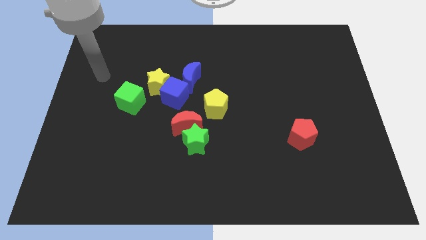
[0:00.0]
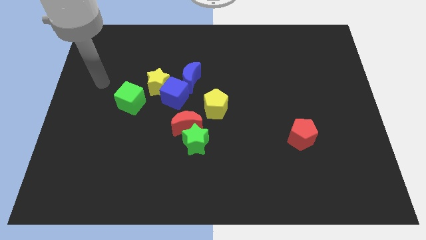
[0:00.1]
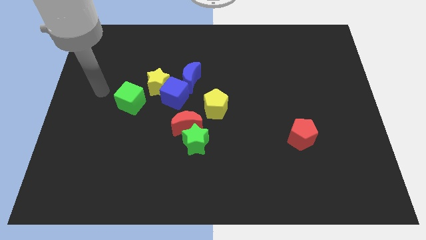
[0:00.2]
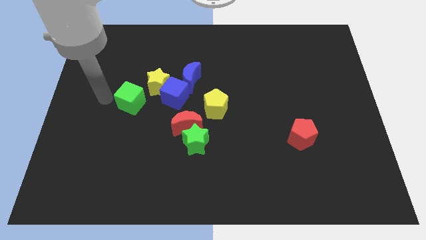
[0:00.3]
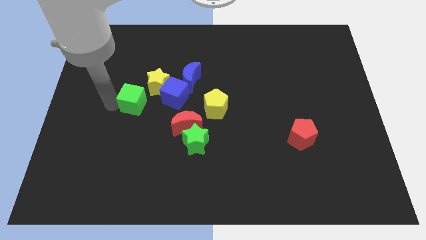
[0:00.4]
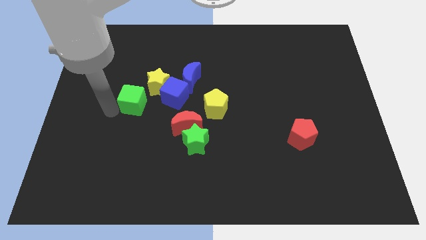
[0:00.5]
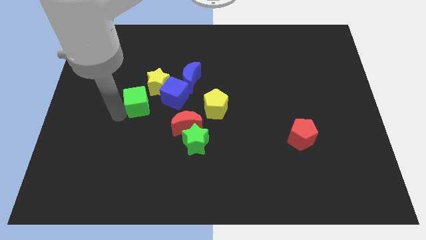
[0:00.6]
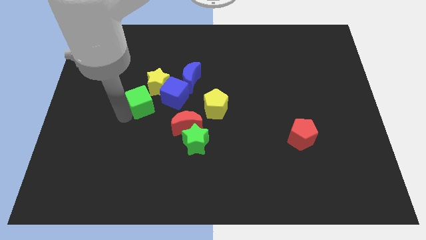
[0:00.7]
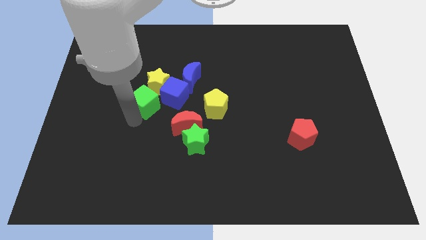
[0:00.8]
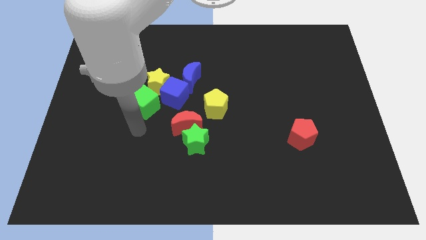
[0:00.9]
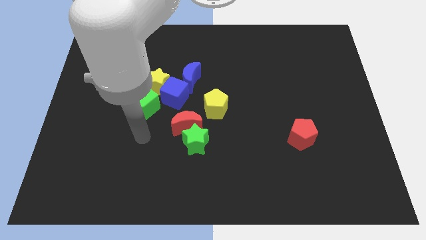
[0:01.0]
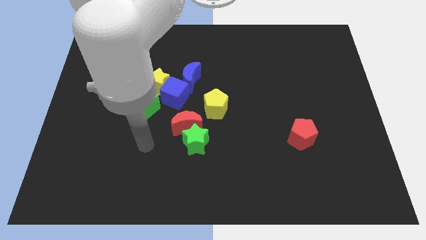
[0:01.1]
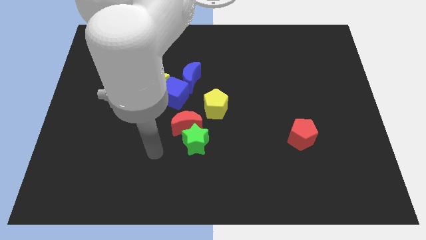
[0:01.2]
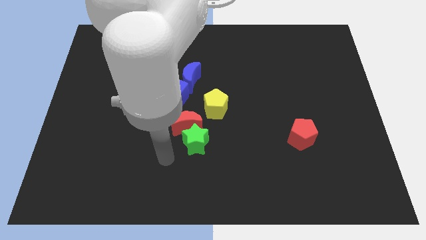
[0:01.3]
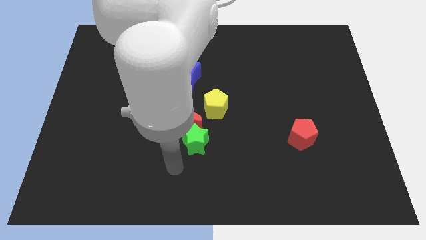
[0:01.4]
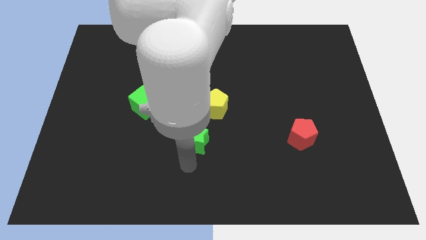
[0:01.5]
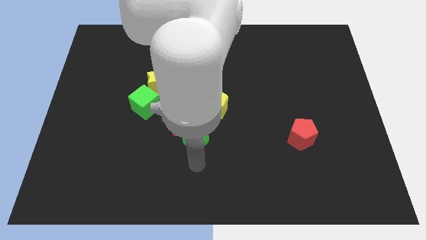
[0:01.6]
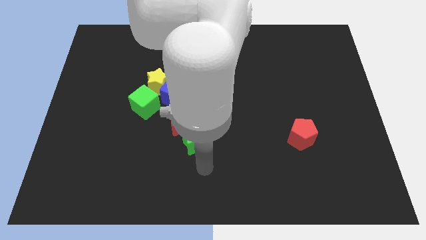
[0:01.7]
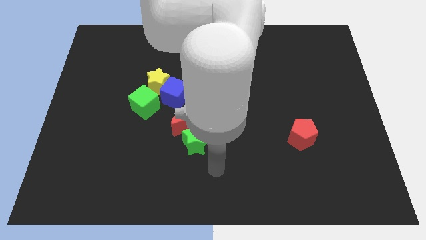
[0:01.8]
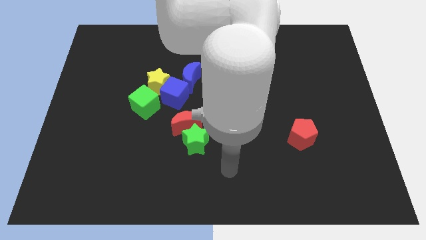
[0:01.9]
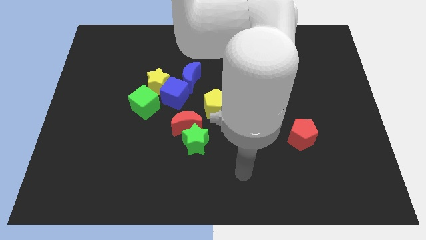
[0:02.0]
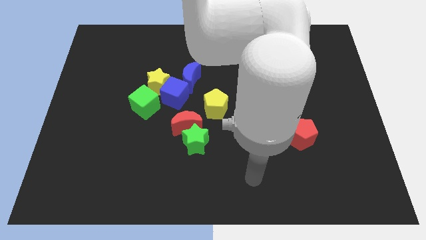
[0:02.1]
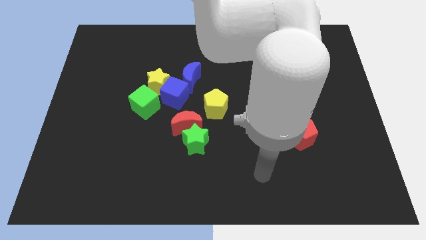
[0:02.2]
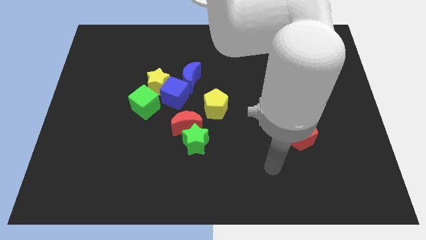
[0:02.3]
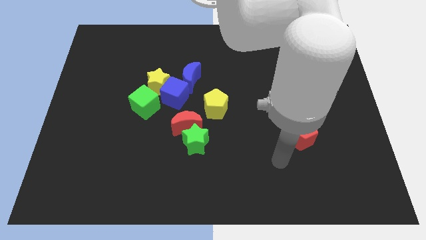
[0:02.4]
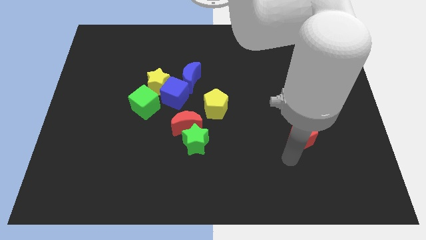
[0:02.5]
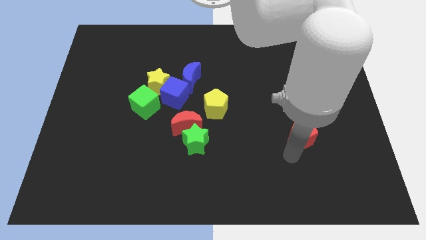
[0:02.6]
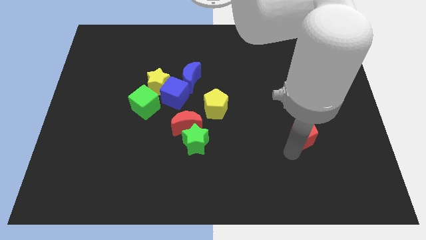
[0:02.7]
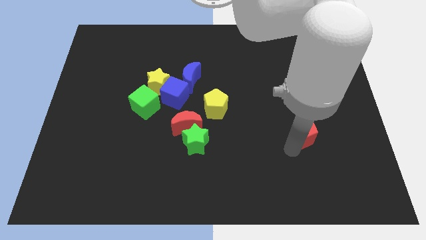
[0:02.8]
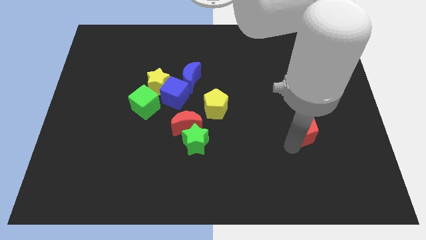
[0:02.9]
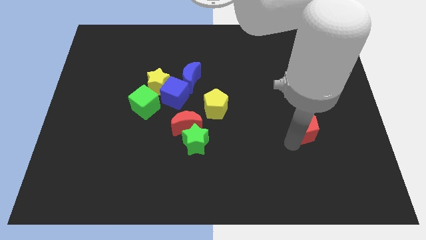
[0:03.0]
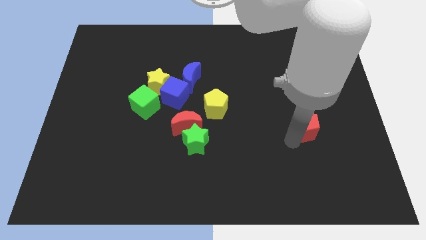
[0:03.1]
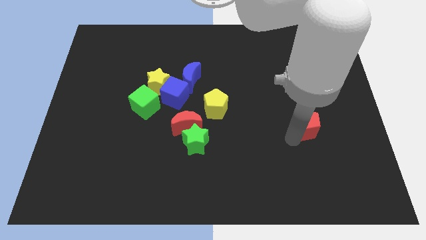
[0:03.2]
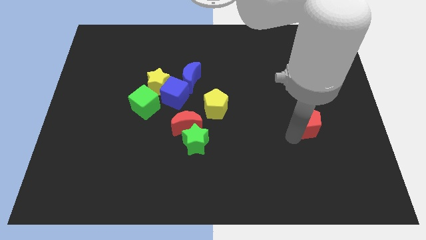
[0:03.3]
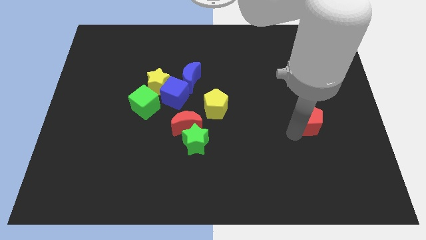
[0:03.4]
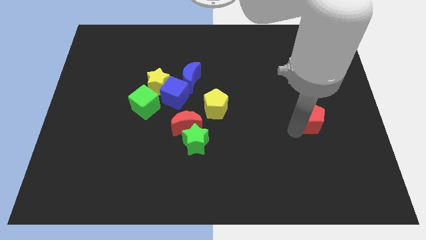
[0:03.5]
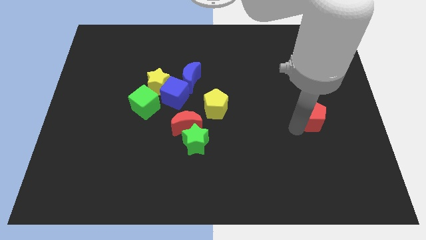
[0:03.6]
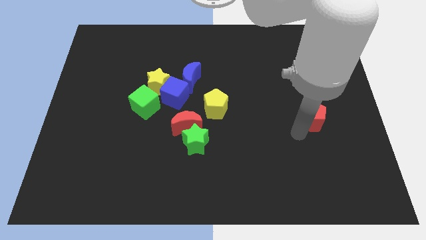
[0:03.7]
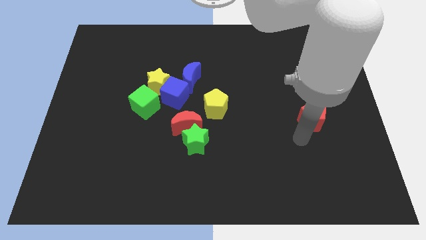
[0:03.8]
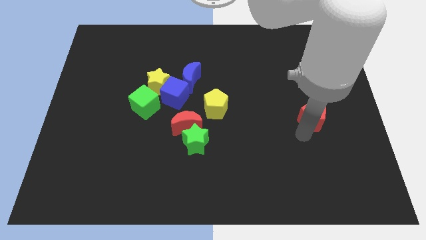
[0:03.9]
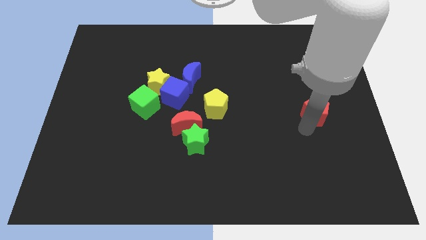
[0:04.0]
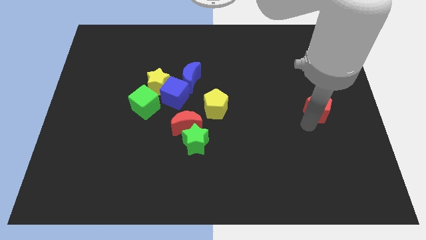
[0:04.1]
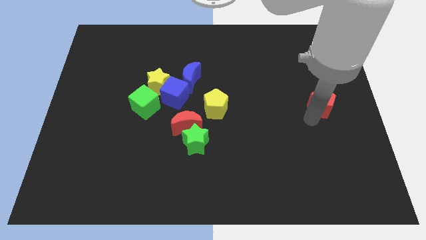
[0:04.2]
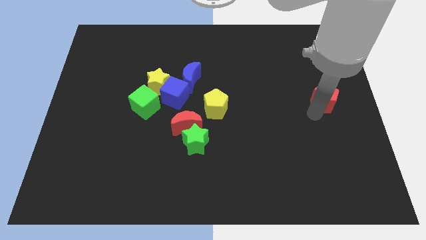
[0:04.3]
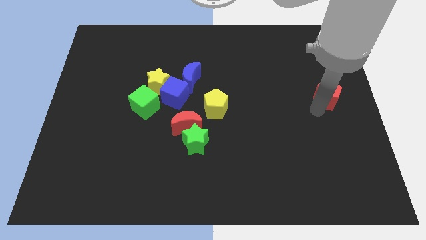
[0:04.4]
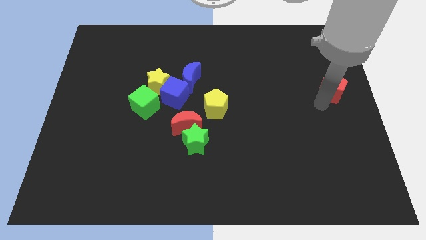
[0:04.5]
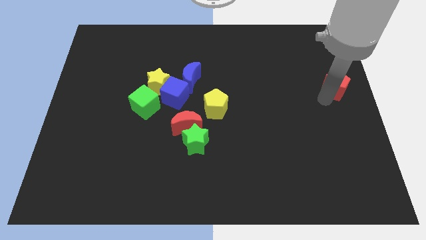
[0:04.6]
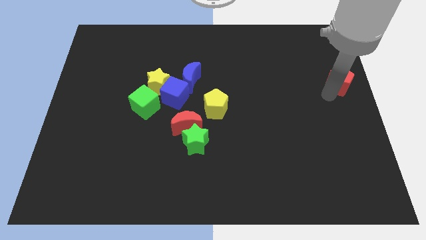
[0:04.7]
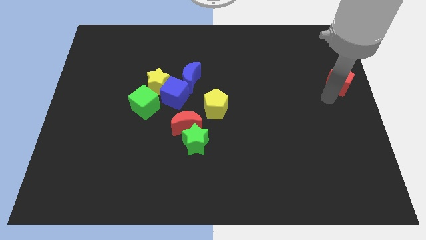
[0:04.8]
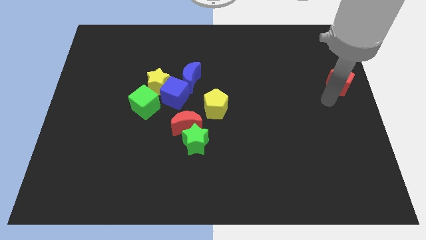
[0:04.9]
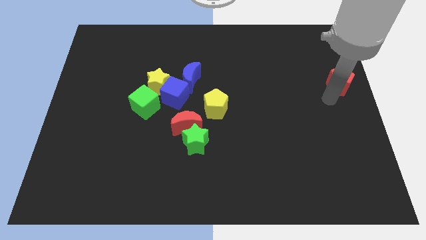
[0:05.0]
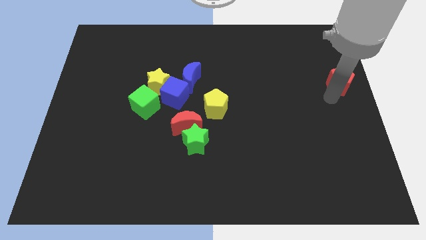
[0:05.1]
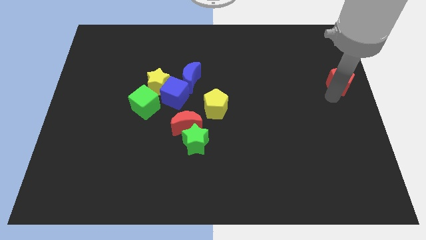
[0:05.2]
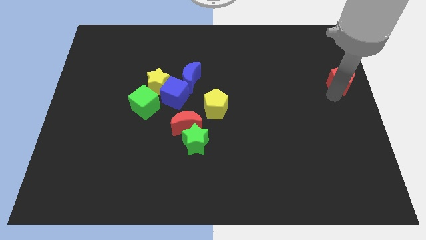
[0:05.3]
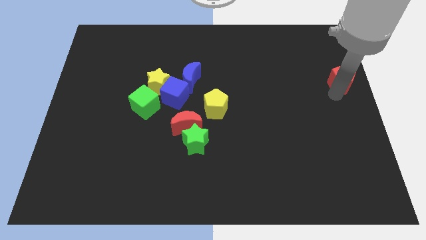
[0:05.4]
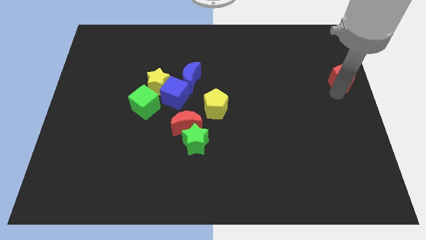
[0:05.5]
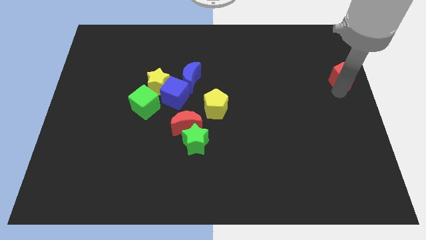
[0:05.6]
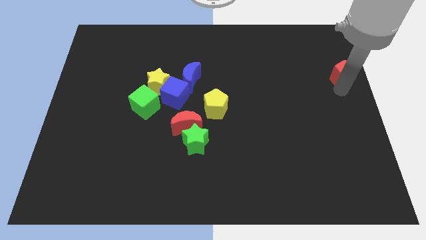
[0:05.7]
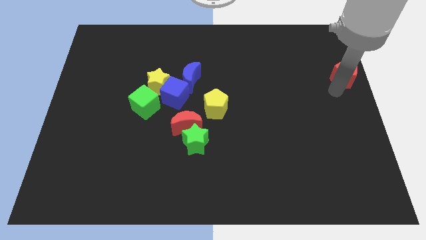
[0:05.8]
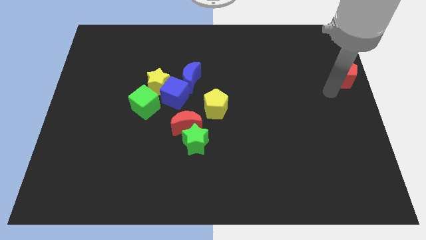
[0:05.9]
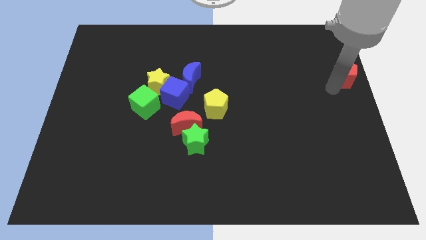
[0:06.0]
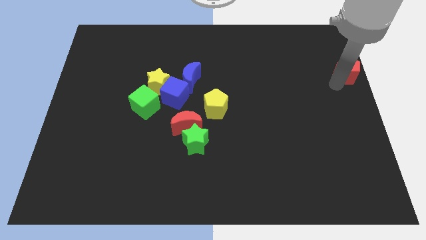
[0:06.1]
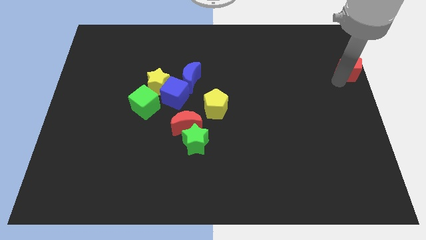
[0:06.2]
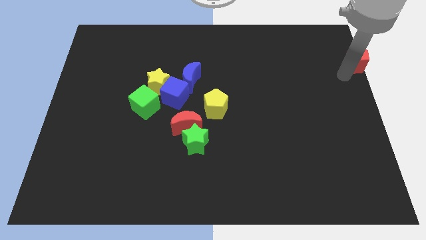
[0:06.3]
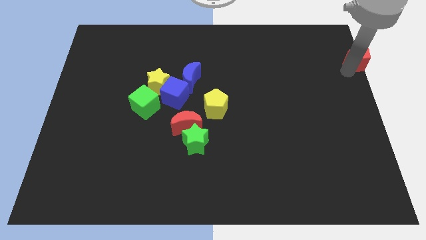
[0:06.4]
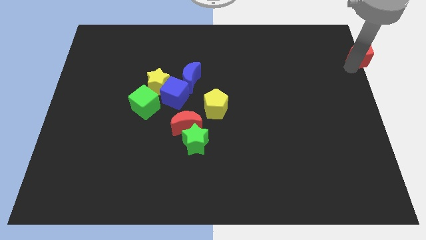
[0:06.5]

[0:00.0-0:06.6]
move the red pentagon to the top right

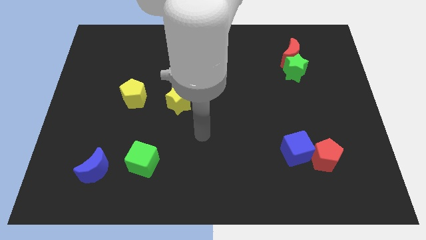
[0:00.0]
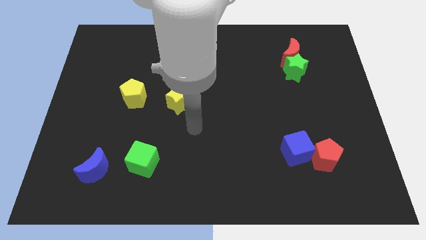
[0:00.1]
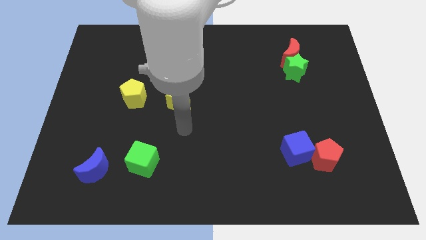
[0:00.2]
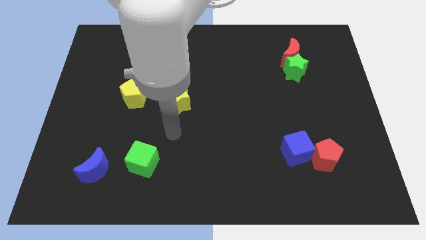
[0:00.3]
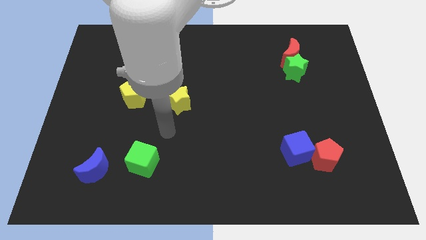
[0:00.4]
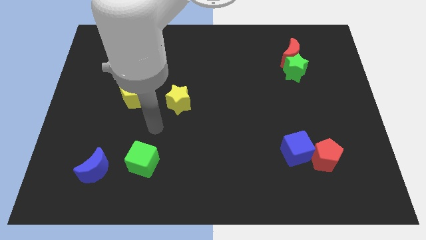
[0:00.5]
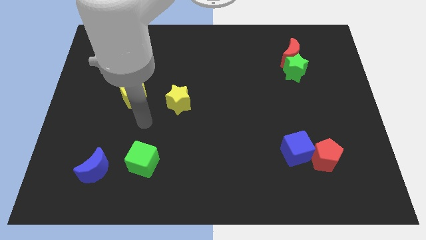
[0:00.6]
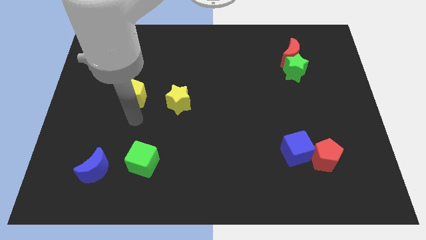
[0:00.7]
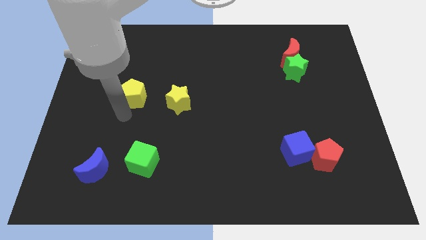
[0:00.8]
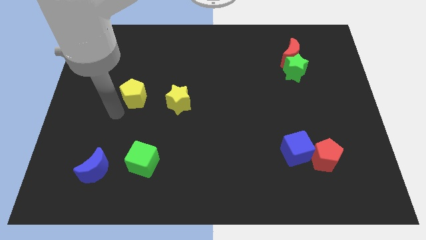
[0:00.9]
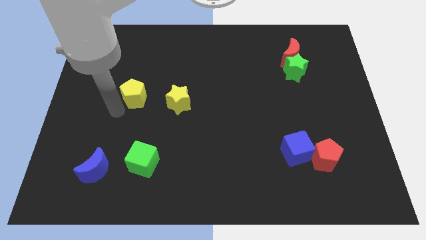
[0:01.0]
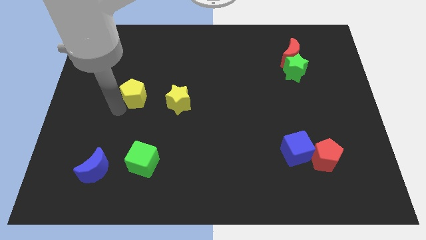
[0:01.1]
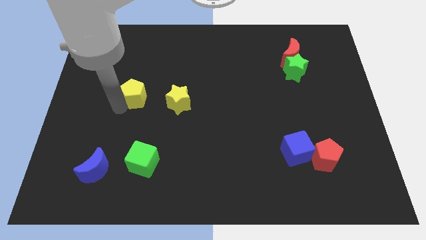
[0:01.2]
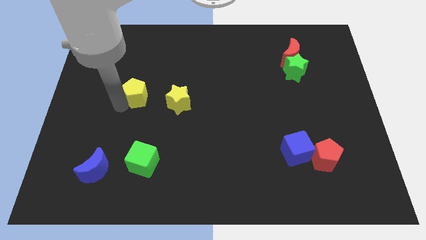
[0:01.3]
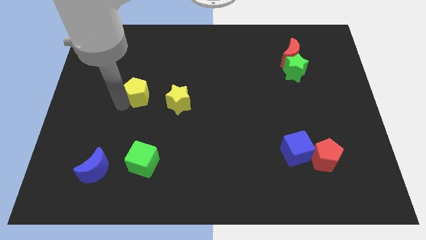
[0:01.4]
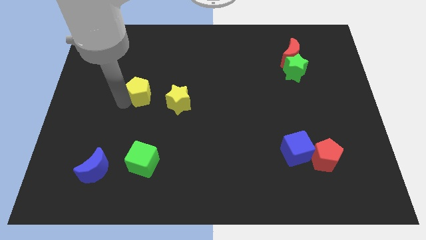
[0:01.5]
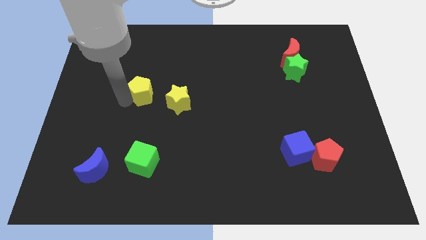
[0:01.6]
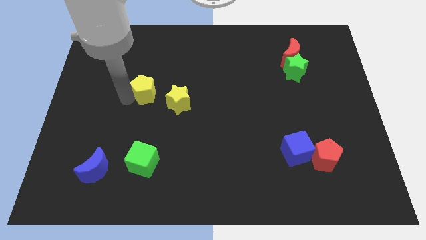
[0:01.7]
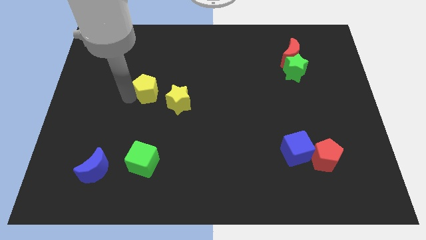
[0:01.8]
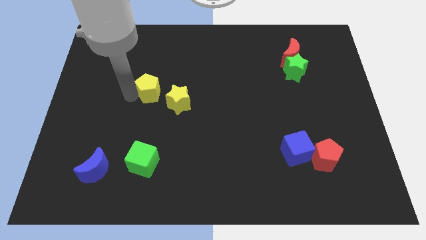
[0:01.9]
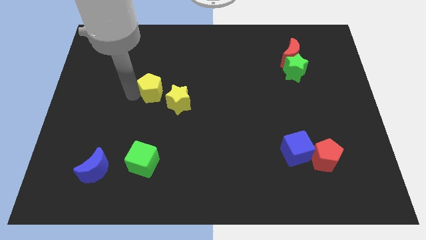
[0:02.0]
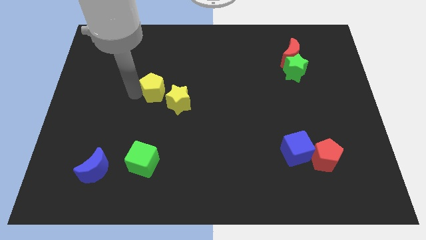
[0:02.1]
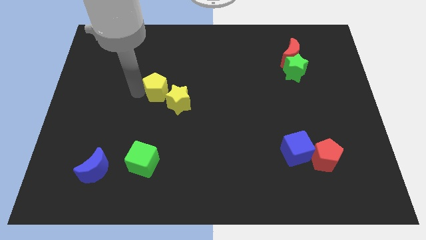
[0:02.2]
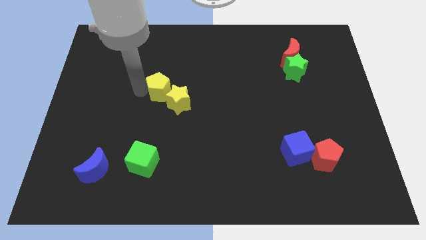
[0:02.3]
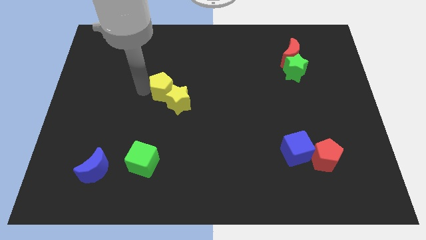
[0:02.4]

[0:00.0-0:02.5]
slide the yellow pentagon to the middle of the board
